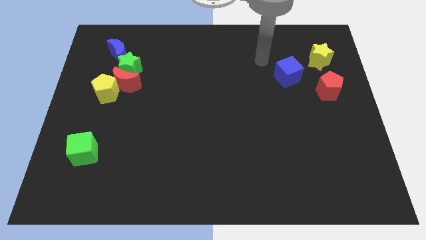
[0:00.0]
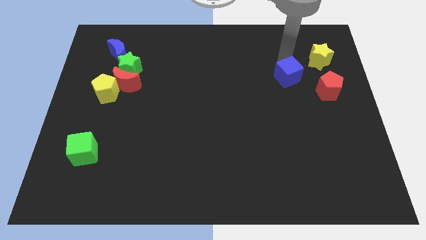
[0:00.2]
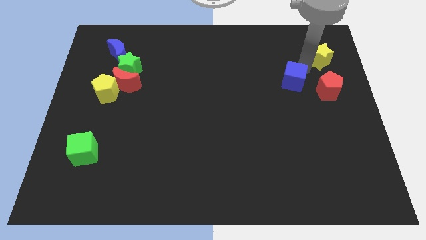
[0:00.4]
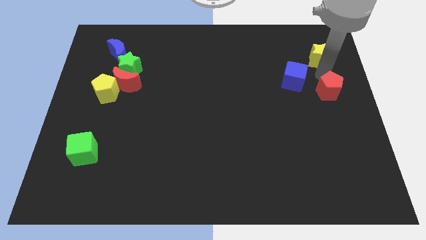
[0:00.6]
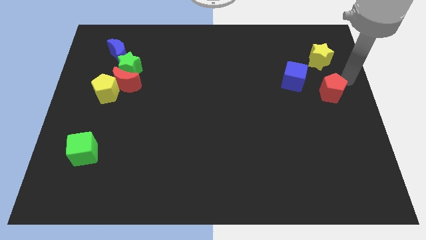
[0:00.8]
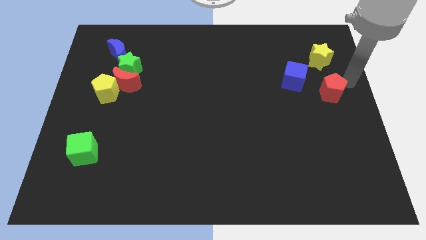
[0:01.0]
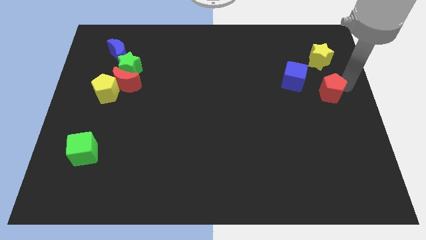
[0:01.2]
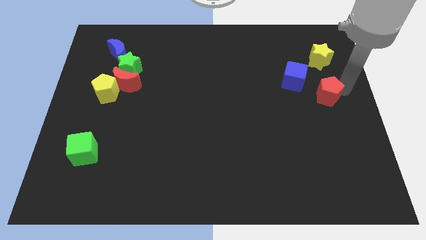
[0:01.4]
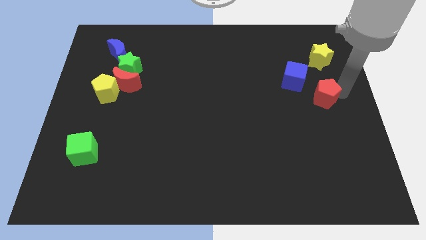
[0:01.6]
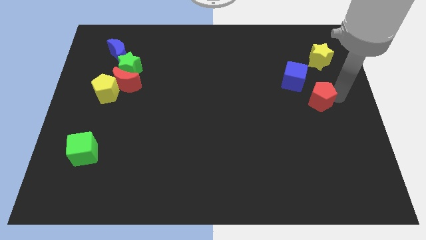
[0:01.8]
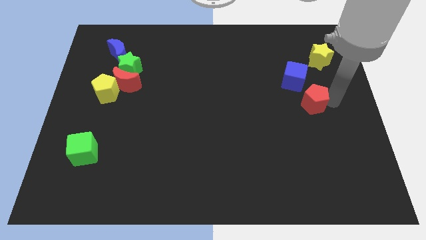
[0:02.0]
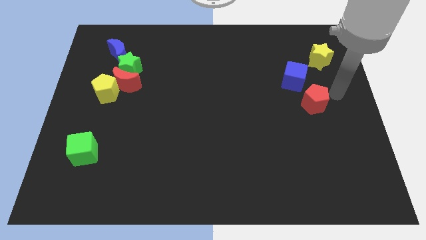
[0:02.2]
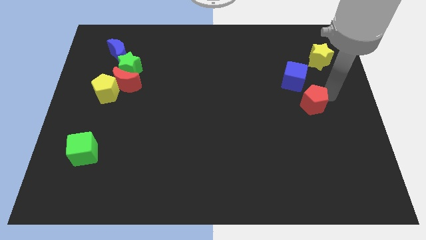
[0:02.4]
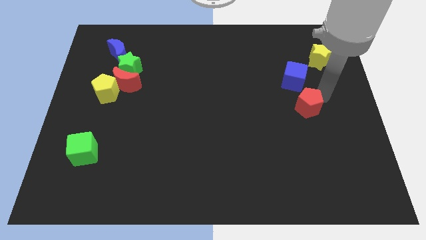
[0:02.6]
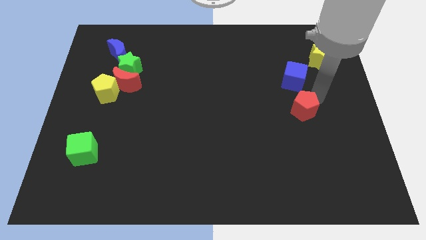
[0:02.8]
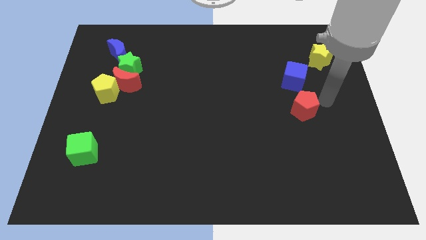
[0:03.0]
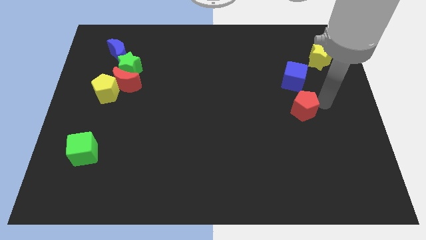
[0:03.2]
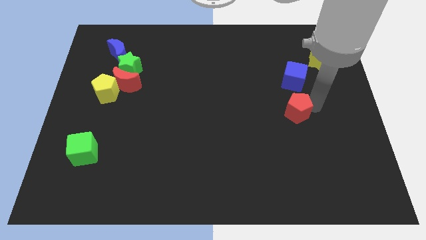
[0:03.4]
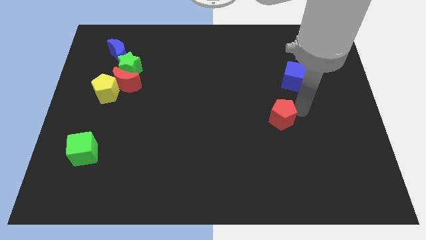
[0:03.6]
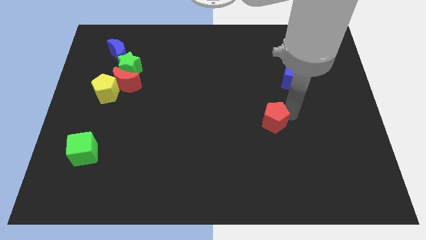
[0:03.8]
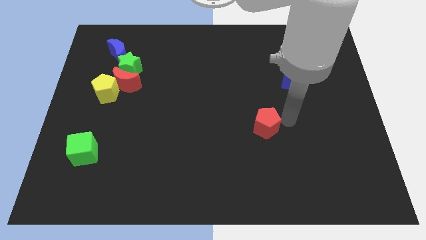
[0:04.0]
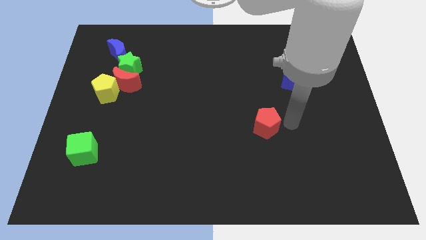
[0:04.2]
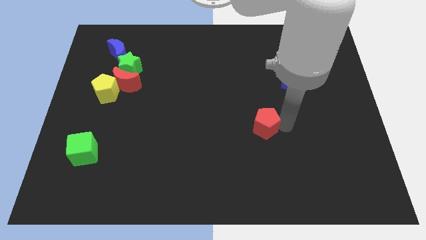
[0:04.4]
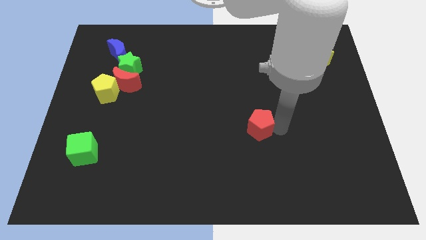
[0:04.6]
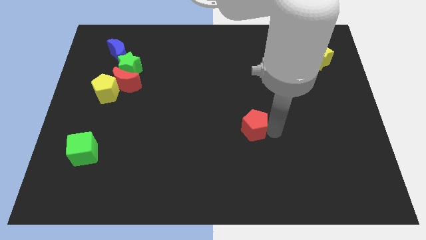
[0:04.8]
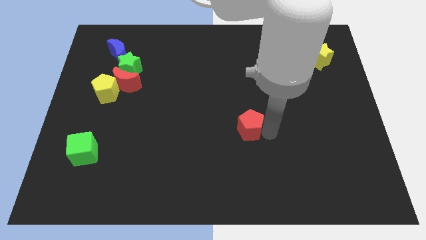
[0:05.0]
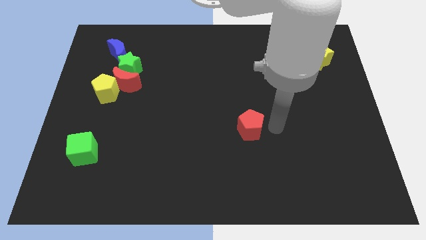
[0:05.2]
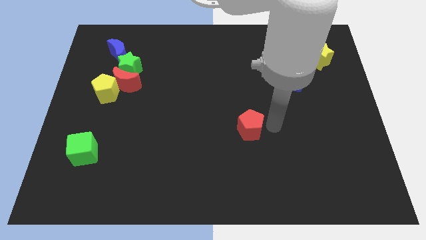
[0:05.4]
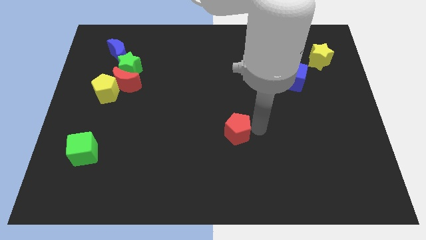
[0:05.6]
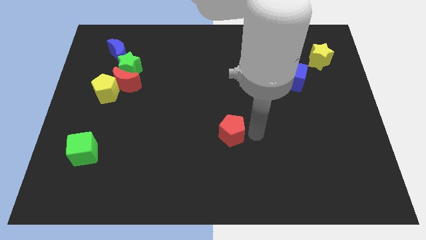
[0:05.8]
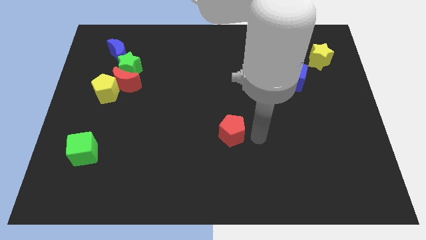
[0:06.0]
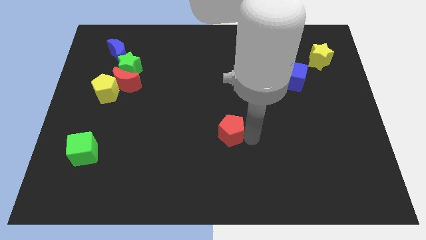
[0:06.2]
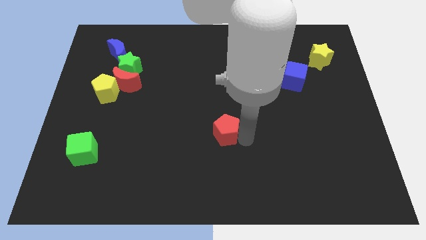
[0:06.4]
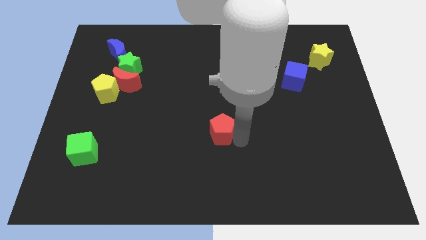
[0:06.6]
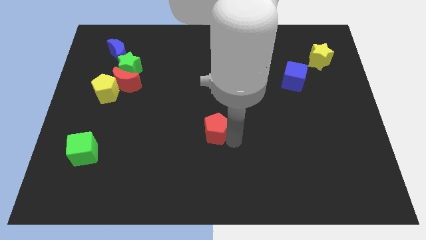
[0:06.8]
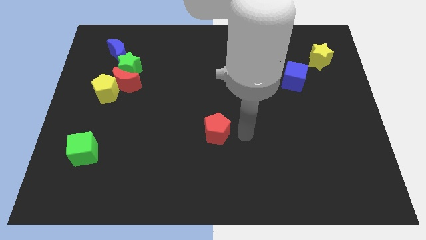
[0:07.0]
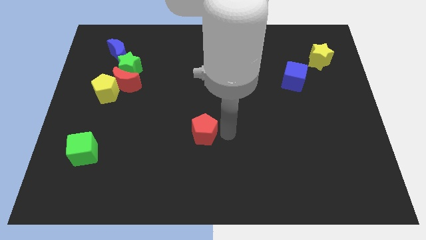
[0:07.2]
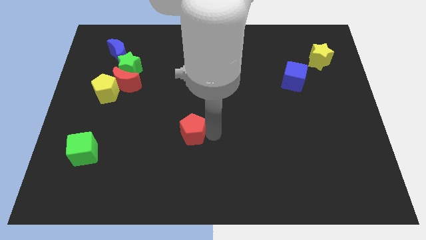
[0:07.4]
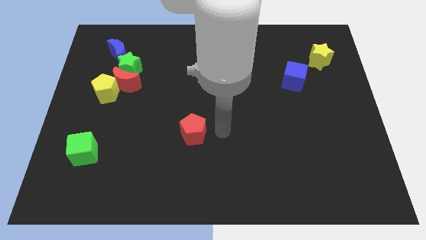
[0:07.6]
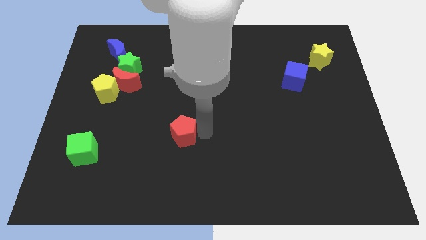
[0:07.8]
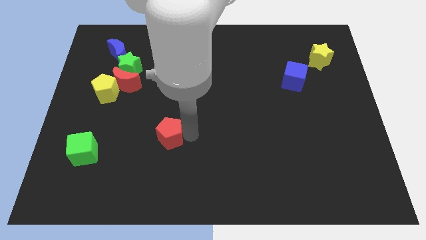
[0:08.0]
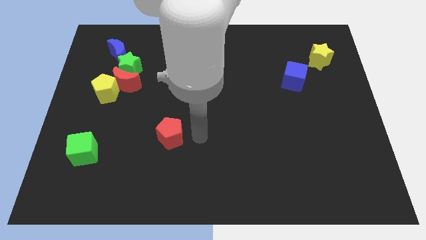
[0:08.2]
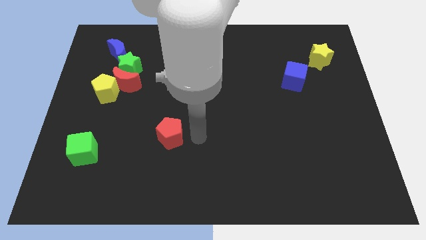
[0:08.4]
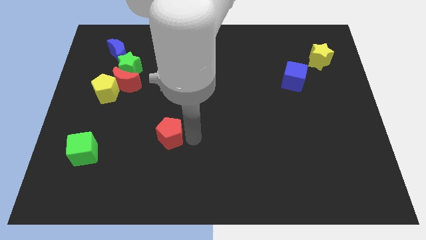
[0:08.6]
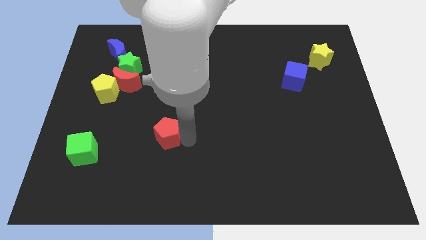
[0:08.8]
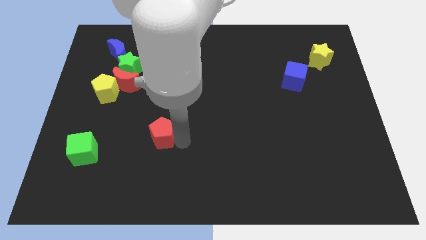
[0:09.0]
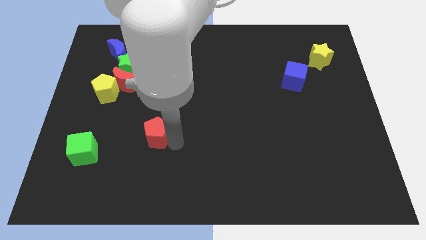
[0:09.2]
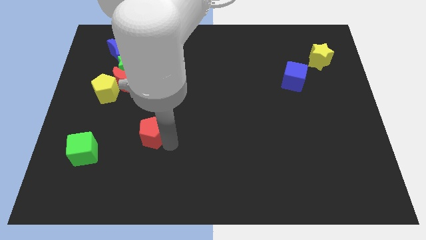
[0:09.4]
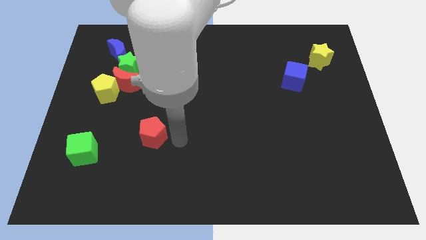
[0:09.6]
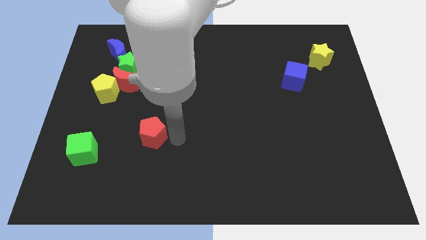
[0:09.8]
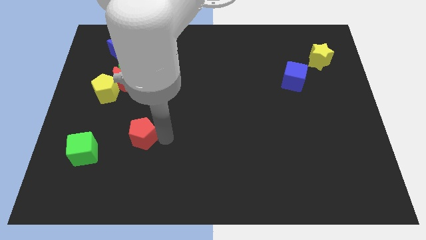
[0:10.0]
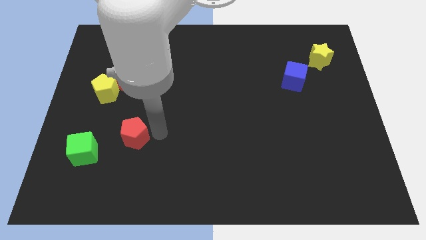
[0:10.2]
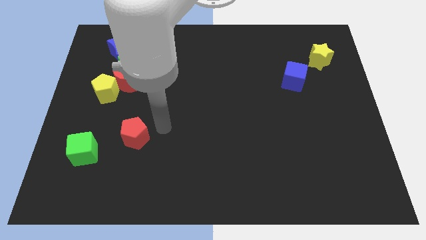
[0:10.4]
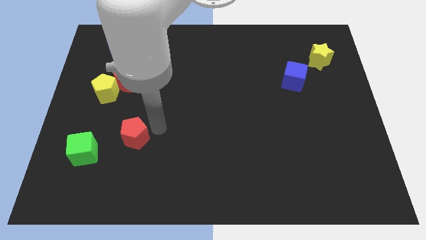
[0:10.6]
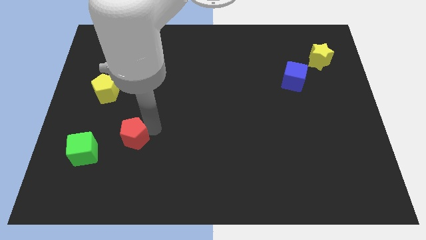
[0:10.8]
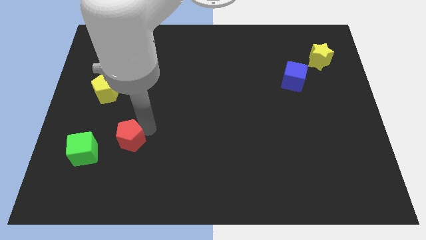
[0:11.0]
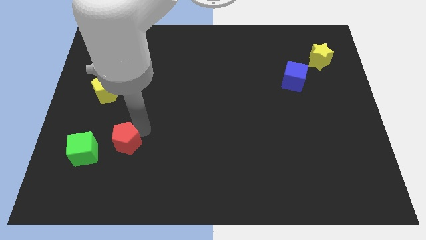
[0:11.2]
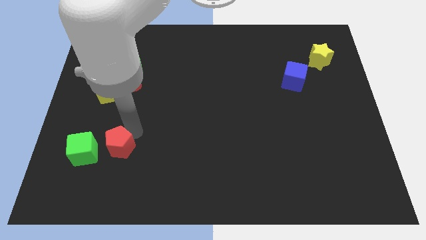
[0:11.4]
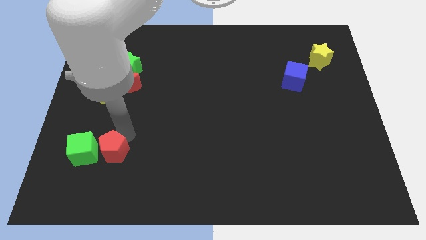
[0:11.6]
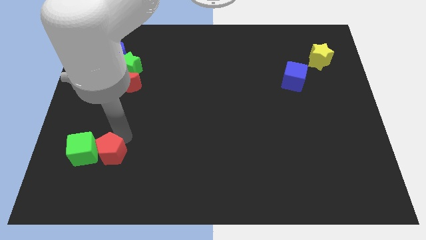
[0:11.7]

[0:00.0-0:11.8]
push the red pentagon to the green cube
